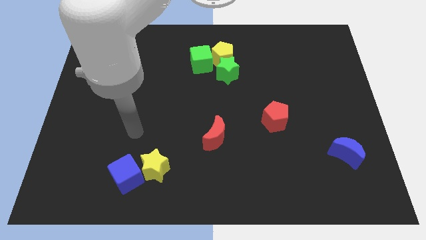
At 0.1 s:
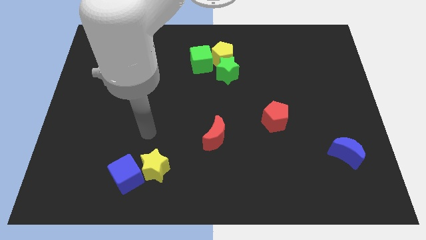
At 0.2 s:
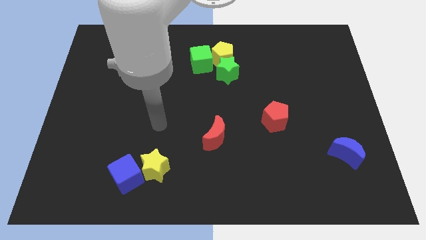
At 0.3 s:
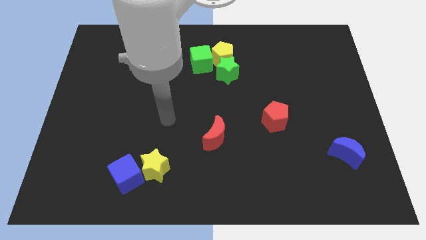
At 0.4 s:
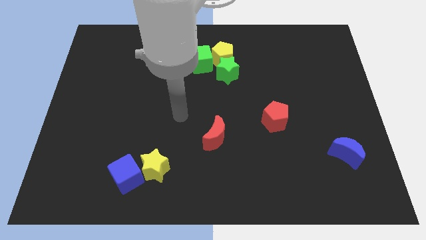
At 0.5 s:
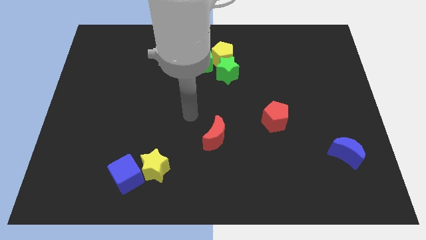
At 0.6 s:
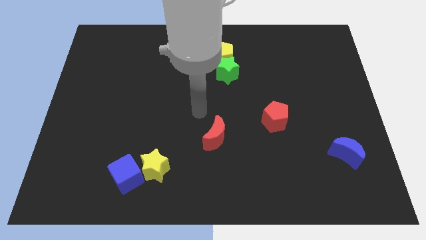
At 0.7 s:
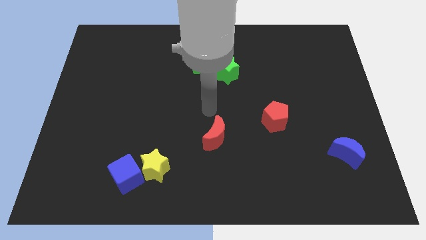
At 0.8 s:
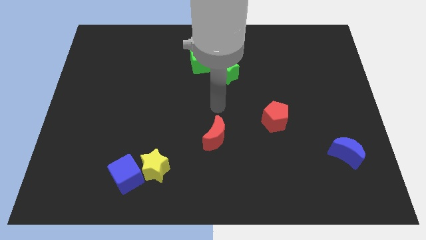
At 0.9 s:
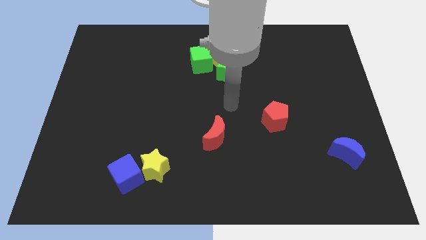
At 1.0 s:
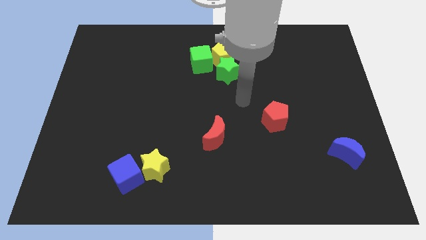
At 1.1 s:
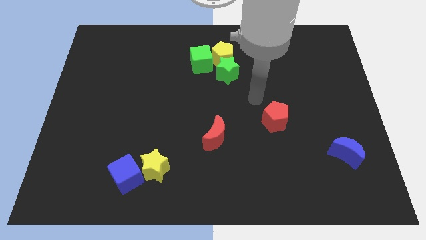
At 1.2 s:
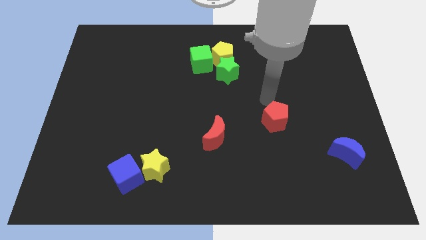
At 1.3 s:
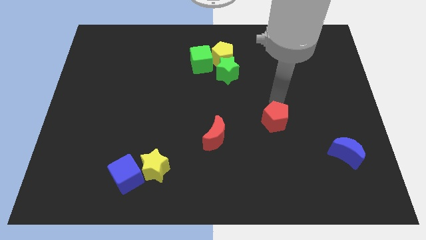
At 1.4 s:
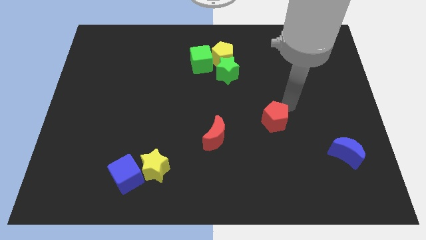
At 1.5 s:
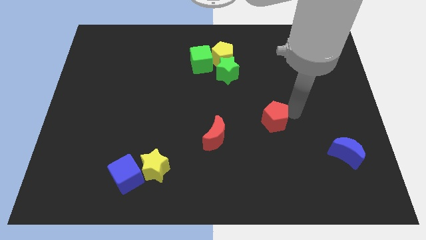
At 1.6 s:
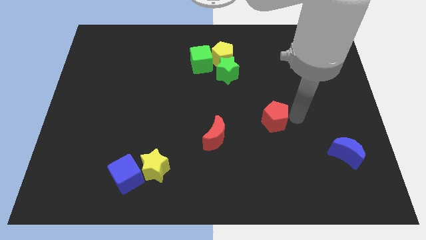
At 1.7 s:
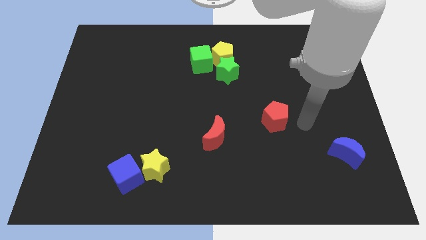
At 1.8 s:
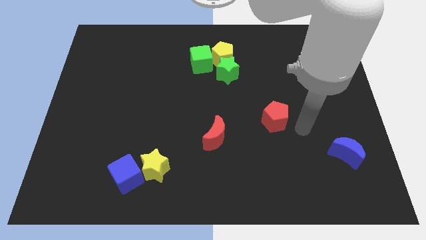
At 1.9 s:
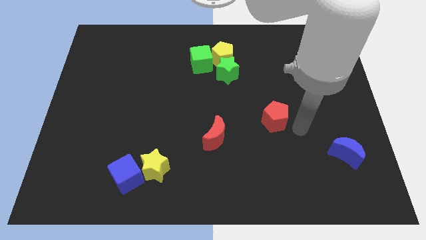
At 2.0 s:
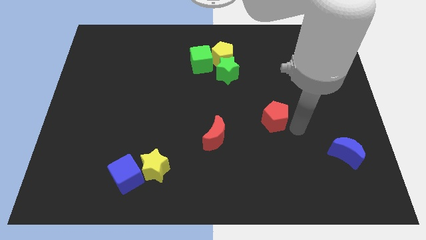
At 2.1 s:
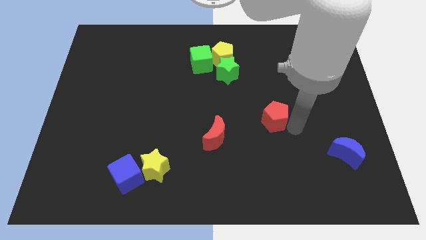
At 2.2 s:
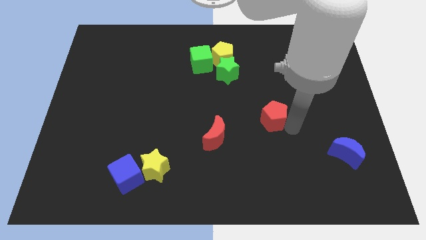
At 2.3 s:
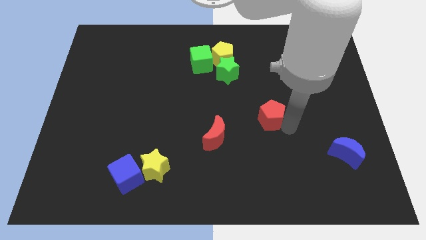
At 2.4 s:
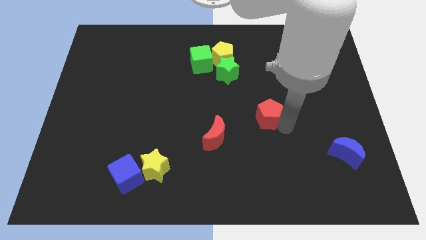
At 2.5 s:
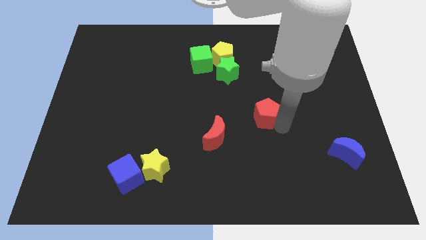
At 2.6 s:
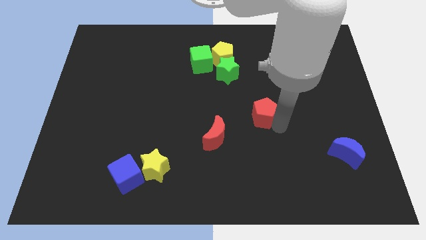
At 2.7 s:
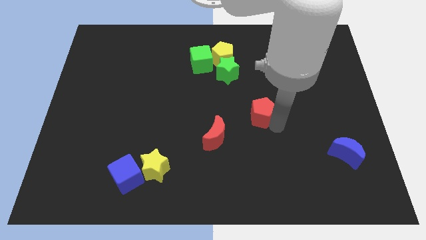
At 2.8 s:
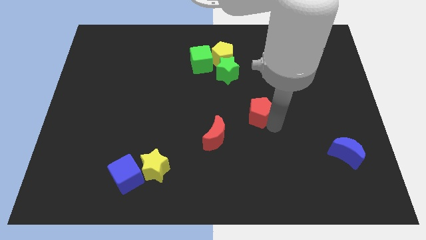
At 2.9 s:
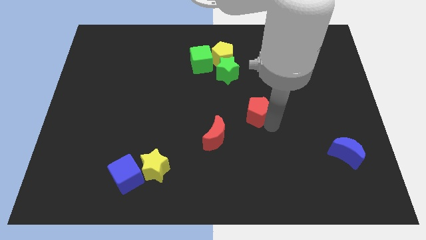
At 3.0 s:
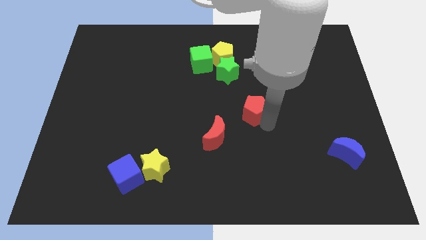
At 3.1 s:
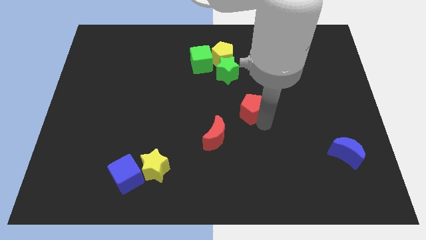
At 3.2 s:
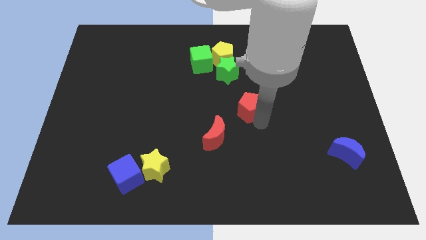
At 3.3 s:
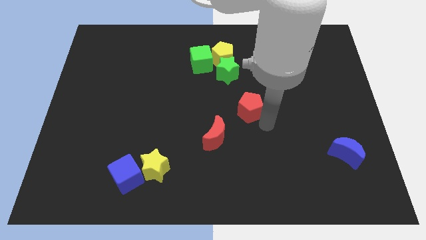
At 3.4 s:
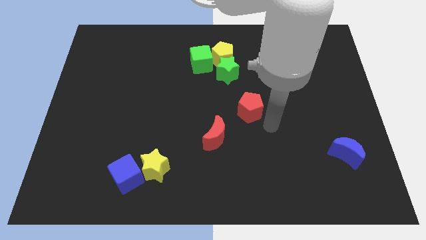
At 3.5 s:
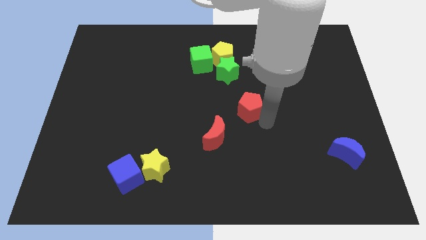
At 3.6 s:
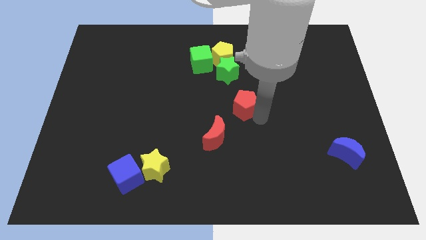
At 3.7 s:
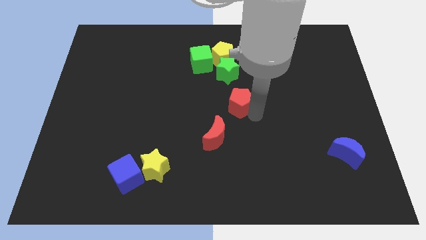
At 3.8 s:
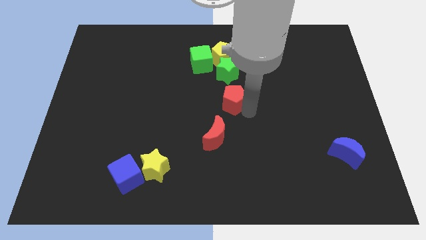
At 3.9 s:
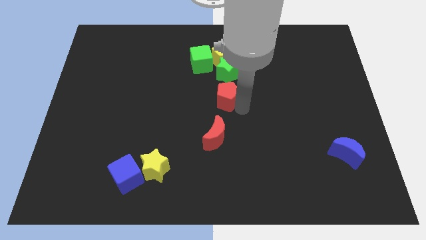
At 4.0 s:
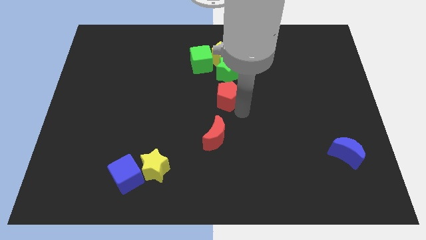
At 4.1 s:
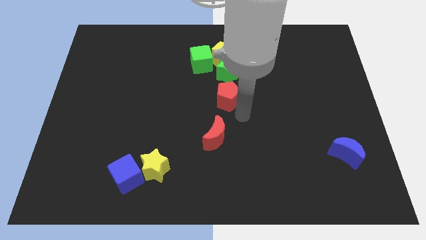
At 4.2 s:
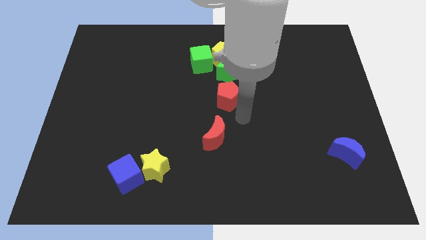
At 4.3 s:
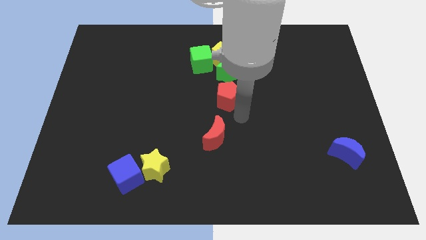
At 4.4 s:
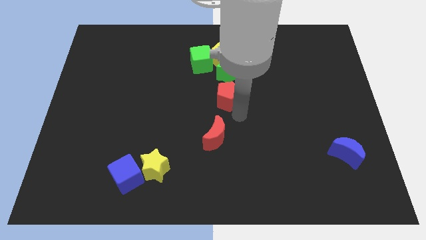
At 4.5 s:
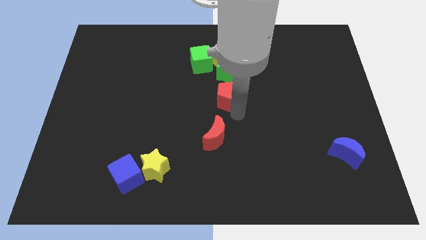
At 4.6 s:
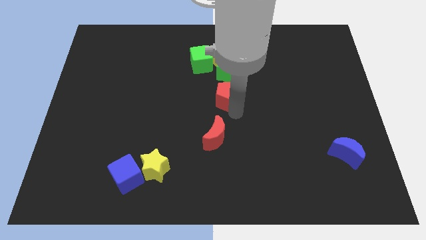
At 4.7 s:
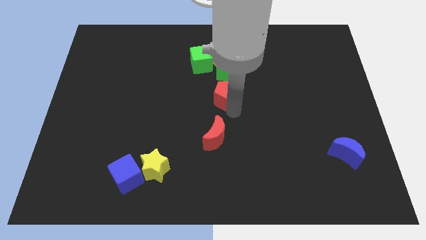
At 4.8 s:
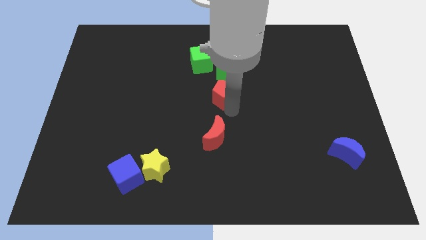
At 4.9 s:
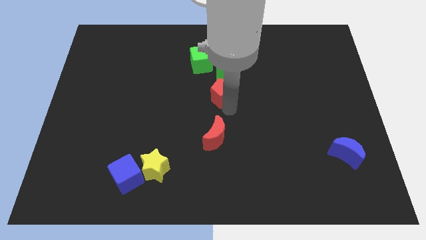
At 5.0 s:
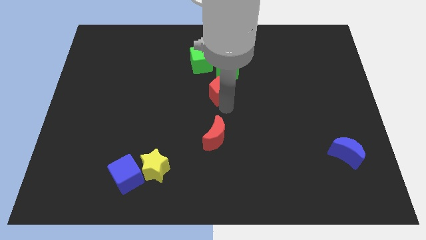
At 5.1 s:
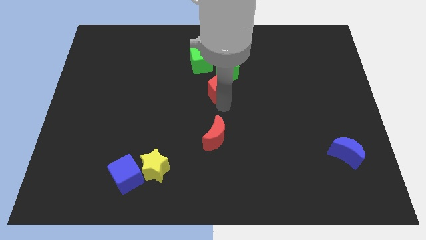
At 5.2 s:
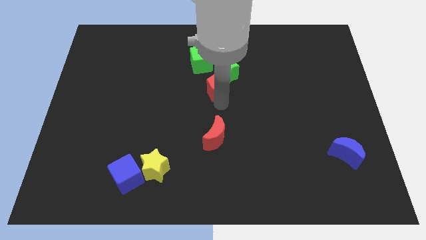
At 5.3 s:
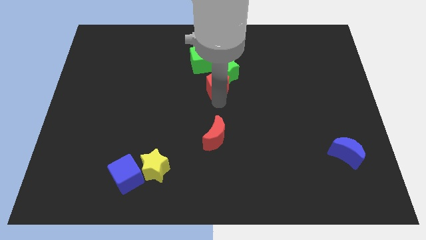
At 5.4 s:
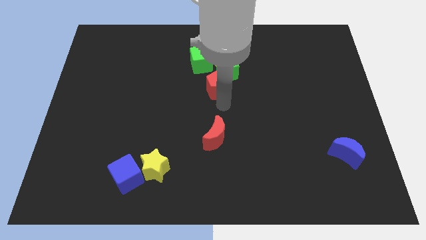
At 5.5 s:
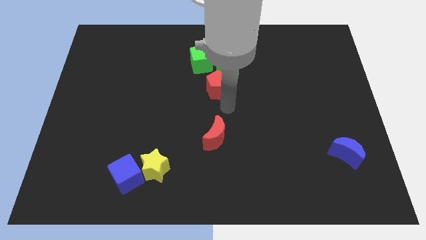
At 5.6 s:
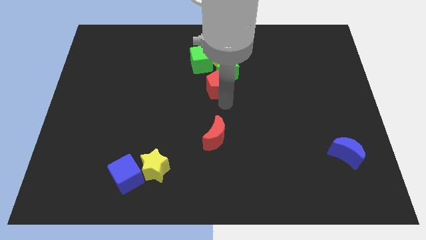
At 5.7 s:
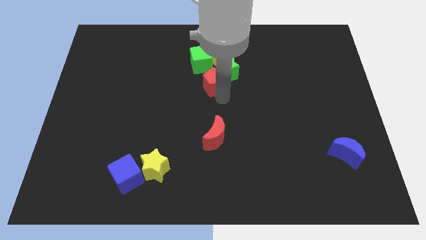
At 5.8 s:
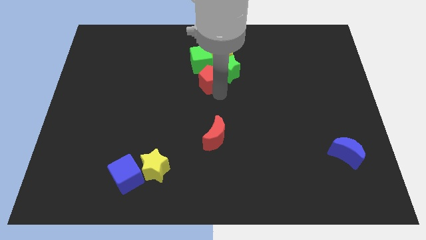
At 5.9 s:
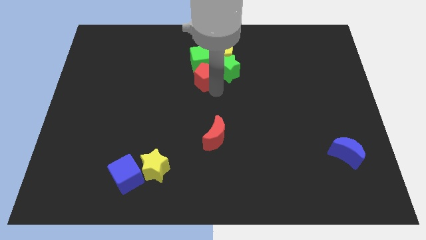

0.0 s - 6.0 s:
push the red pentagon to the green cube

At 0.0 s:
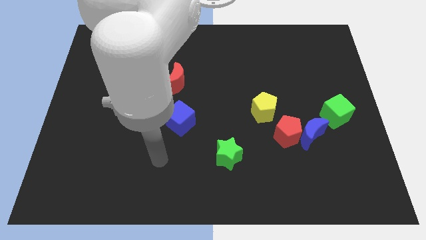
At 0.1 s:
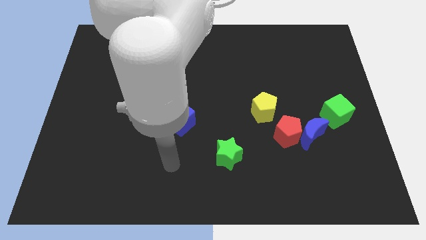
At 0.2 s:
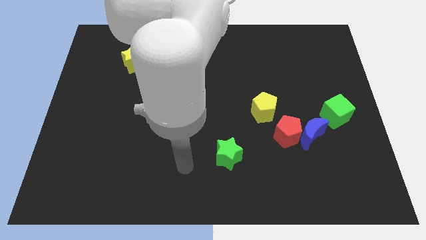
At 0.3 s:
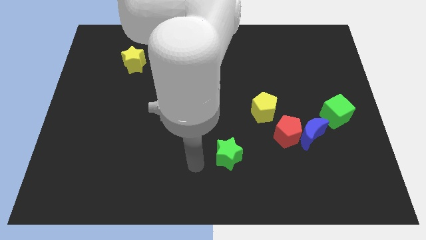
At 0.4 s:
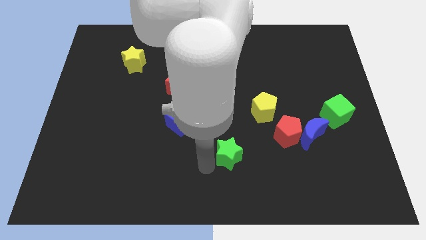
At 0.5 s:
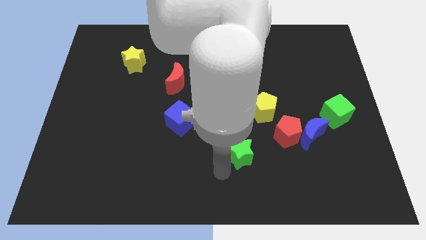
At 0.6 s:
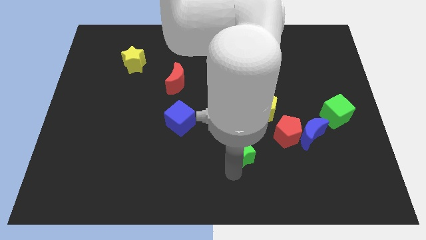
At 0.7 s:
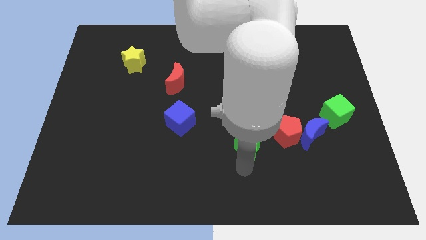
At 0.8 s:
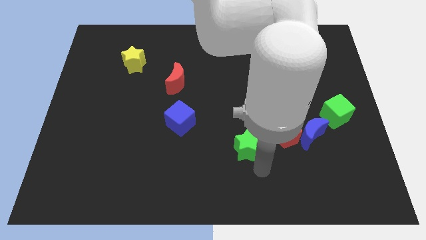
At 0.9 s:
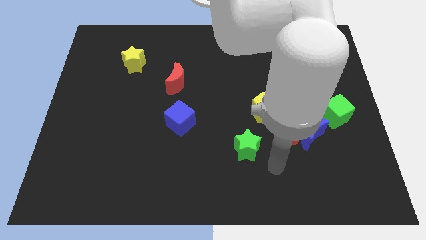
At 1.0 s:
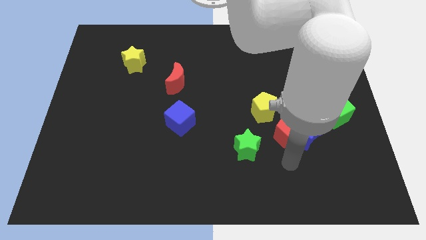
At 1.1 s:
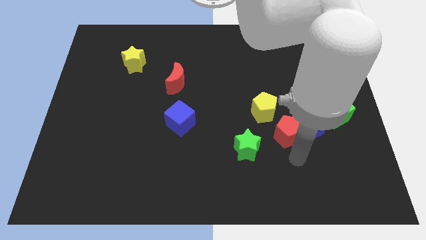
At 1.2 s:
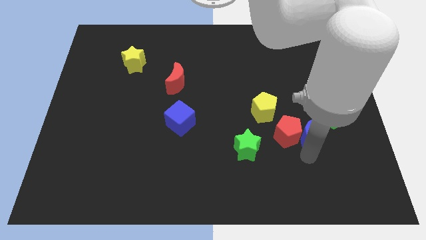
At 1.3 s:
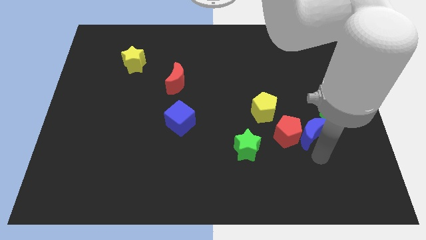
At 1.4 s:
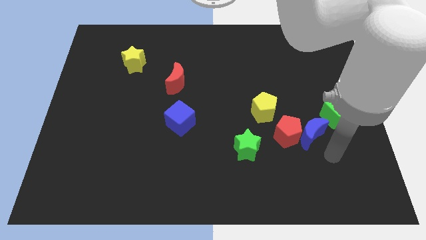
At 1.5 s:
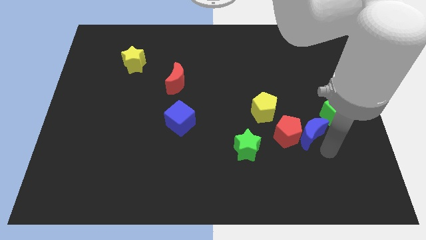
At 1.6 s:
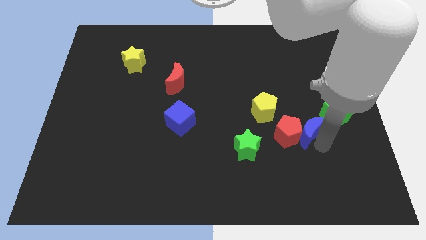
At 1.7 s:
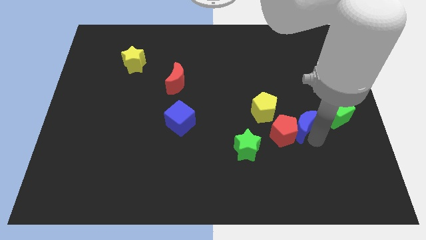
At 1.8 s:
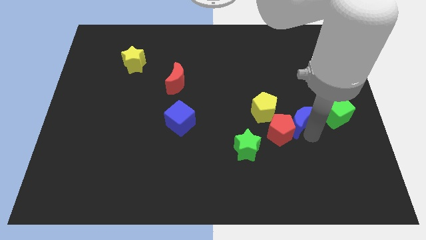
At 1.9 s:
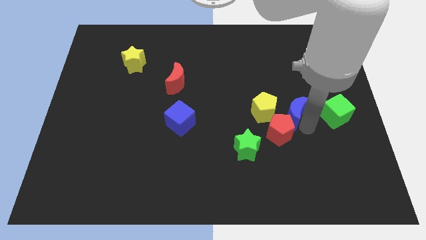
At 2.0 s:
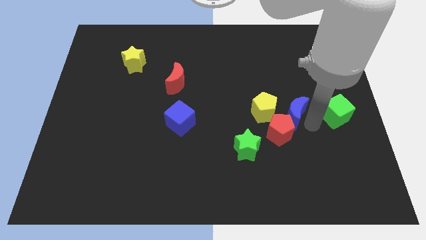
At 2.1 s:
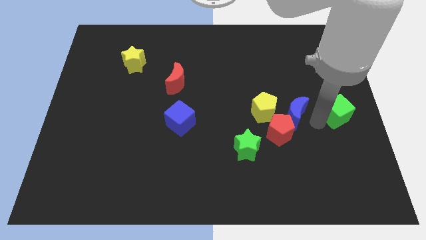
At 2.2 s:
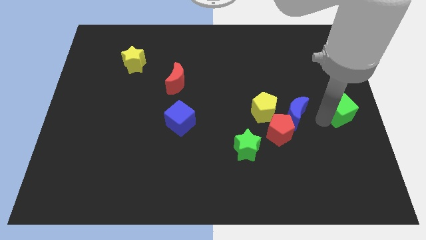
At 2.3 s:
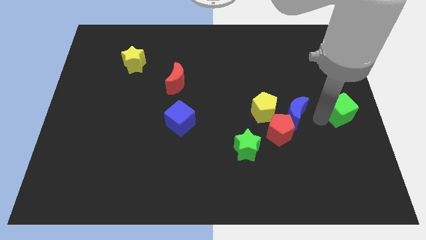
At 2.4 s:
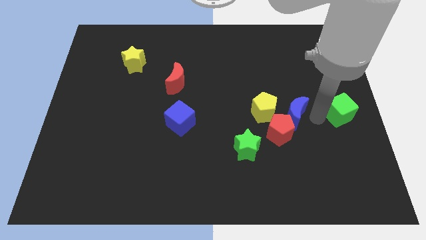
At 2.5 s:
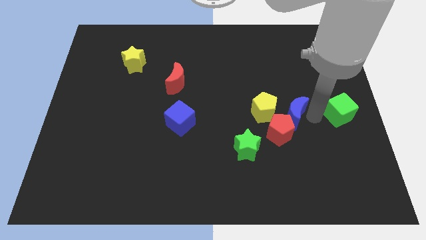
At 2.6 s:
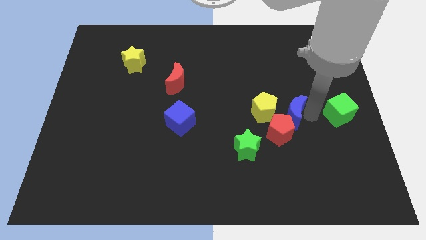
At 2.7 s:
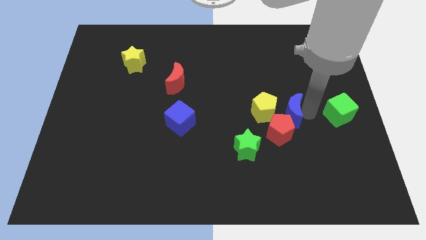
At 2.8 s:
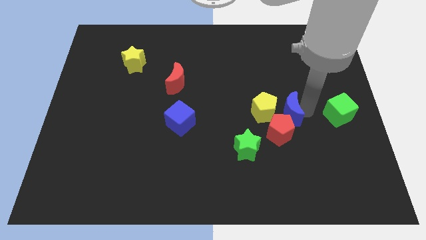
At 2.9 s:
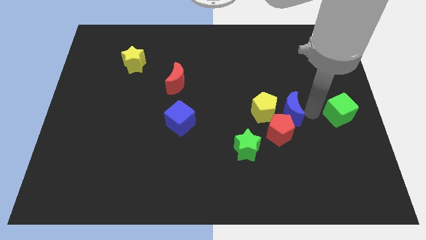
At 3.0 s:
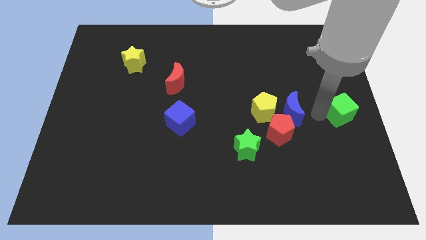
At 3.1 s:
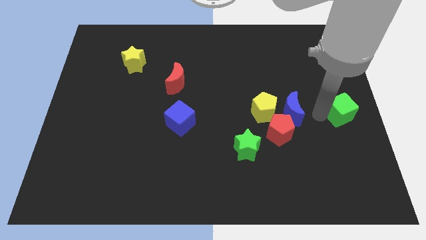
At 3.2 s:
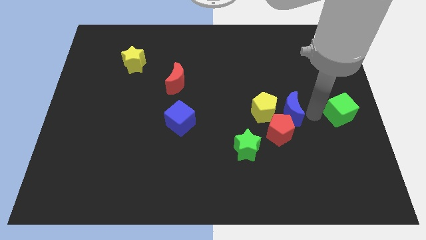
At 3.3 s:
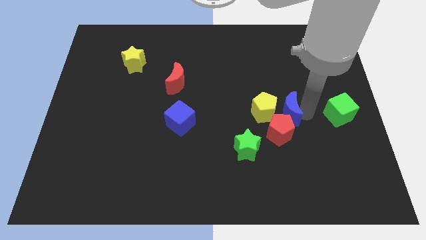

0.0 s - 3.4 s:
slide the blue moon next to the yellow pentagon
